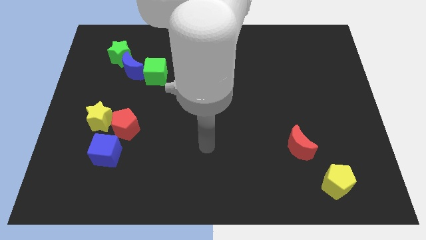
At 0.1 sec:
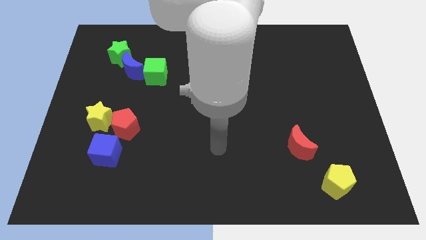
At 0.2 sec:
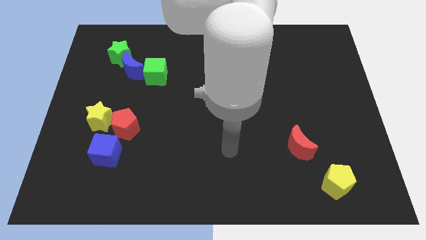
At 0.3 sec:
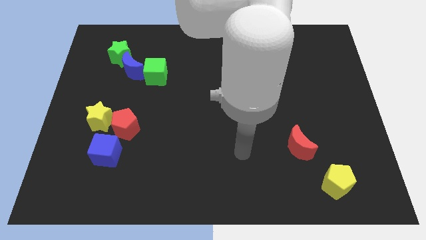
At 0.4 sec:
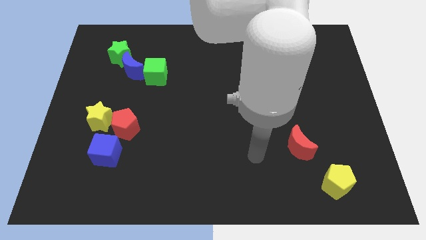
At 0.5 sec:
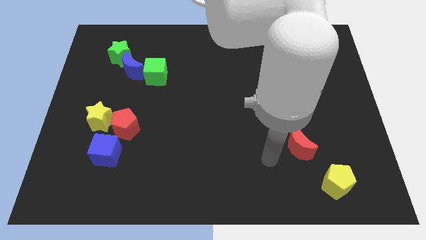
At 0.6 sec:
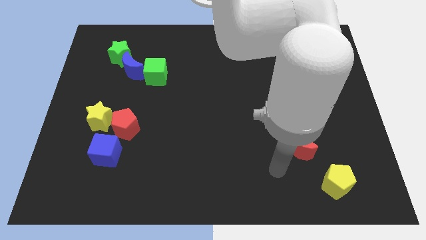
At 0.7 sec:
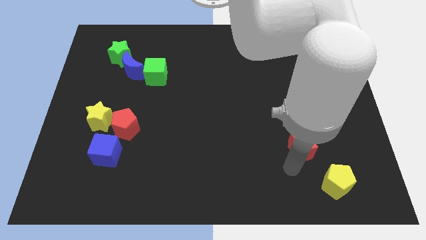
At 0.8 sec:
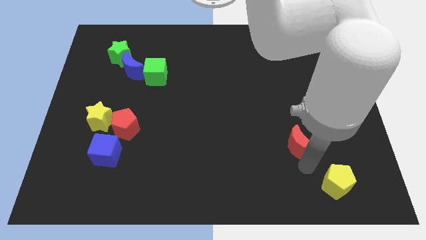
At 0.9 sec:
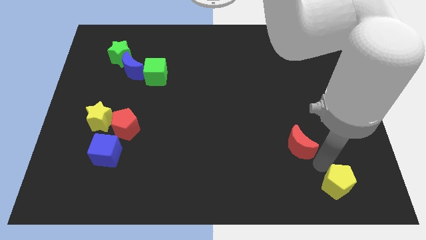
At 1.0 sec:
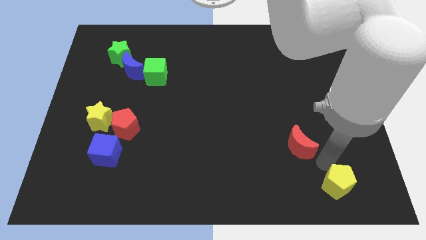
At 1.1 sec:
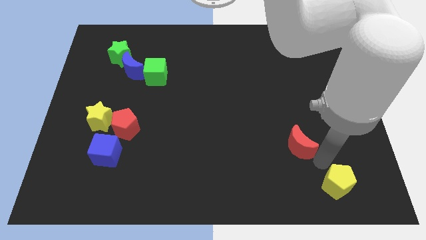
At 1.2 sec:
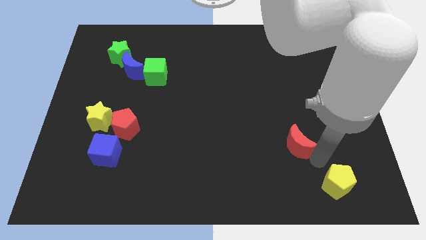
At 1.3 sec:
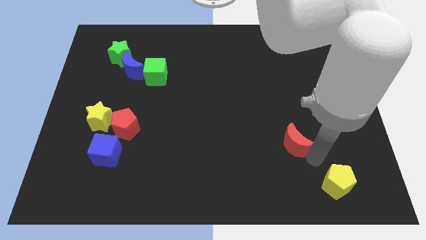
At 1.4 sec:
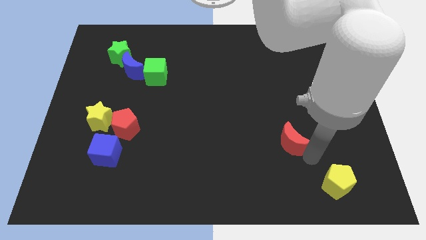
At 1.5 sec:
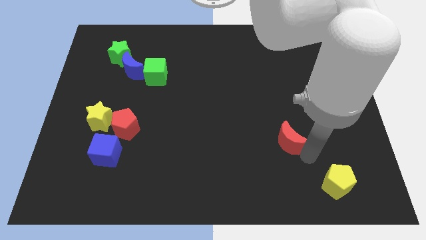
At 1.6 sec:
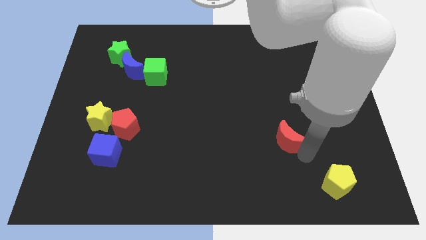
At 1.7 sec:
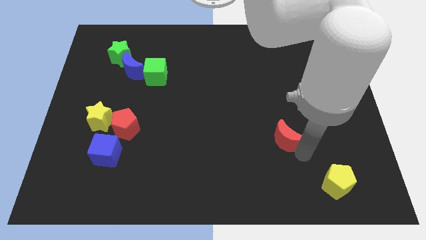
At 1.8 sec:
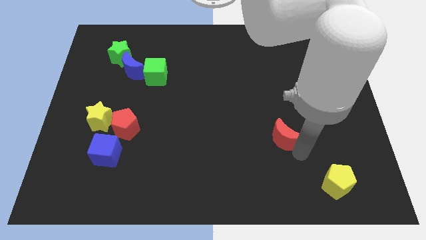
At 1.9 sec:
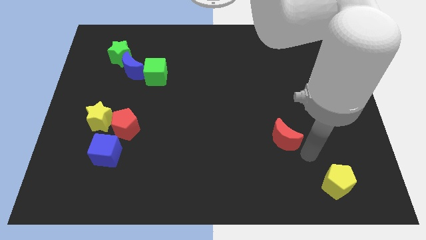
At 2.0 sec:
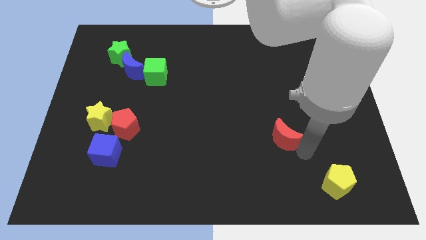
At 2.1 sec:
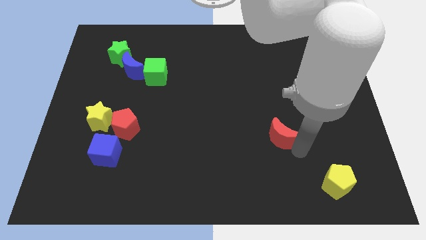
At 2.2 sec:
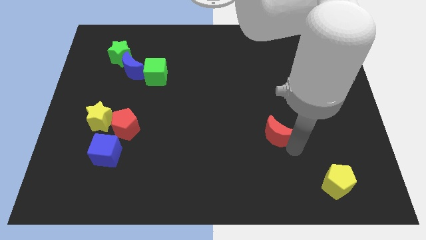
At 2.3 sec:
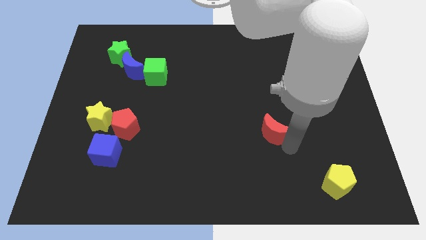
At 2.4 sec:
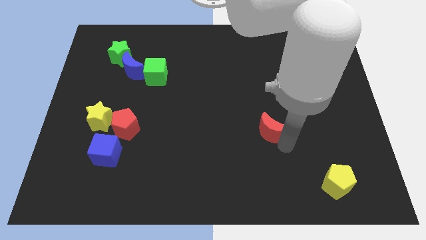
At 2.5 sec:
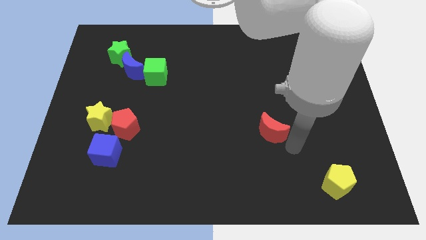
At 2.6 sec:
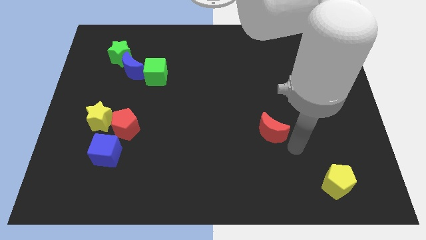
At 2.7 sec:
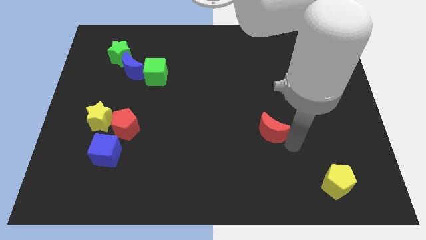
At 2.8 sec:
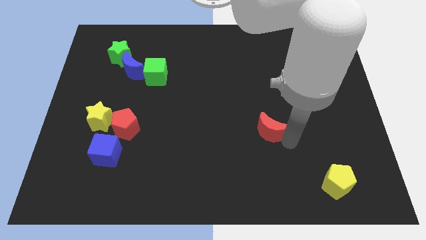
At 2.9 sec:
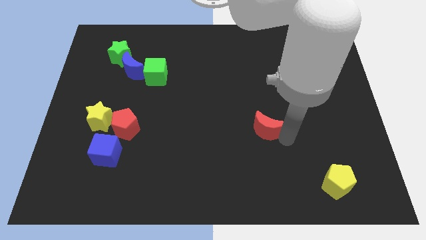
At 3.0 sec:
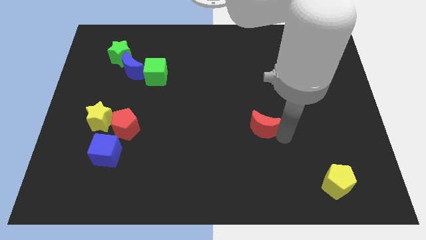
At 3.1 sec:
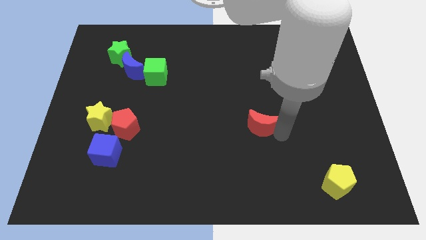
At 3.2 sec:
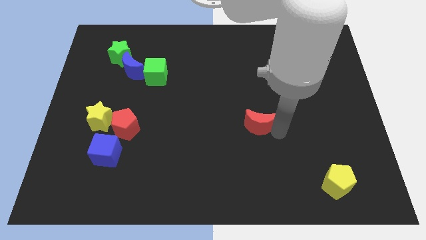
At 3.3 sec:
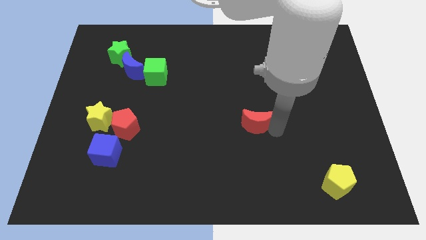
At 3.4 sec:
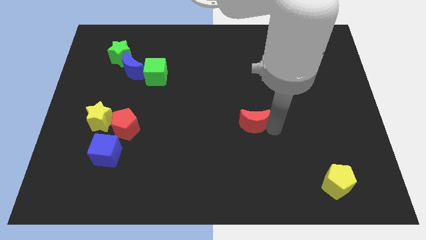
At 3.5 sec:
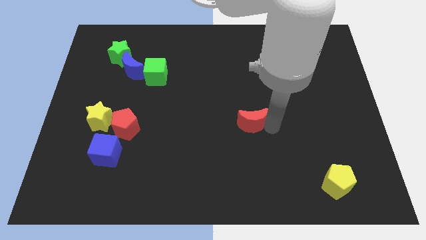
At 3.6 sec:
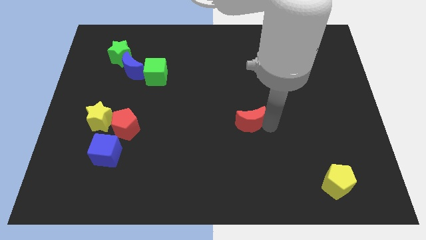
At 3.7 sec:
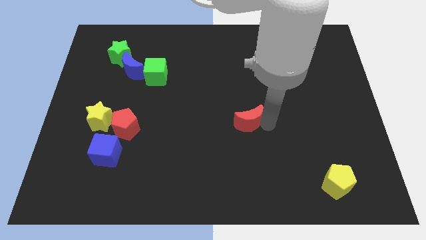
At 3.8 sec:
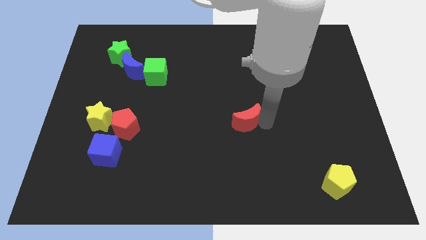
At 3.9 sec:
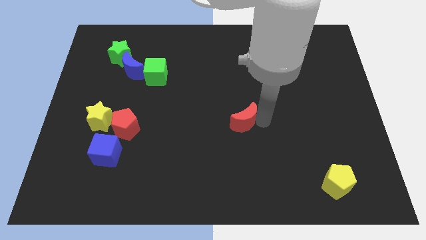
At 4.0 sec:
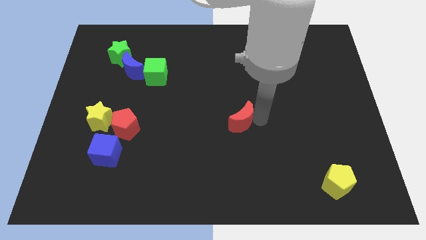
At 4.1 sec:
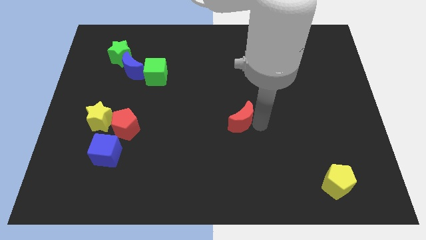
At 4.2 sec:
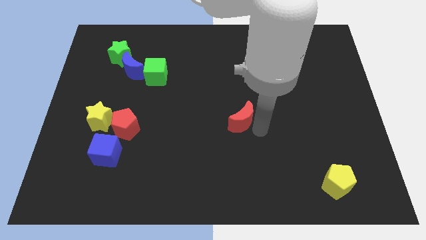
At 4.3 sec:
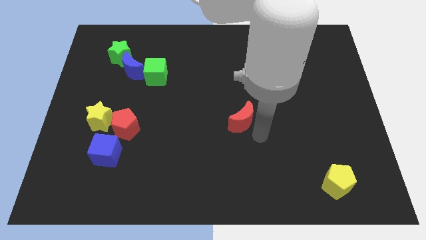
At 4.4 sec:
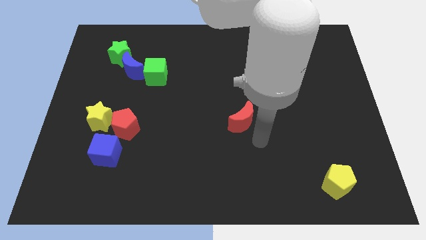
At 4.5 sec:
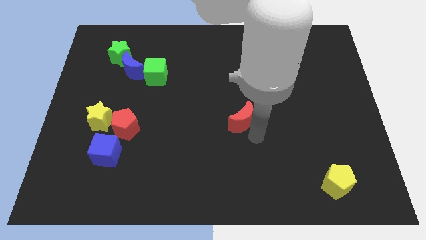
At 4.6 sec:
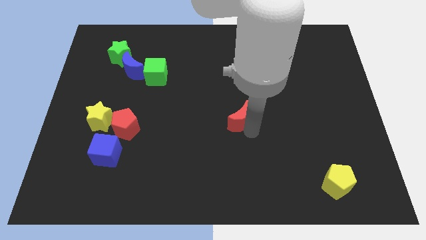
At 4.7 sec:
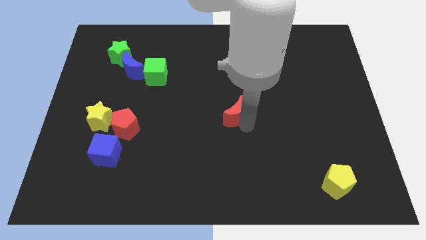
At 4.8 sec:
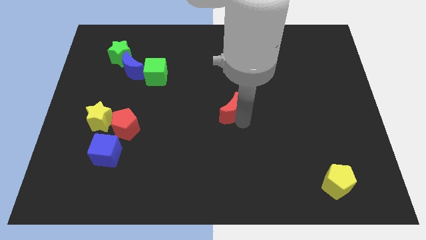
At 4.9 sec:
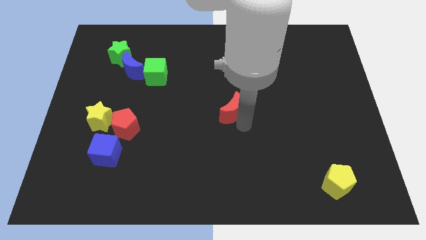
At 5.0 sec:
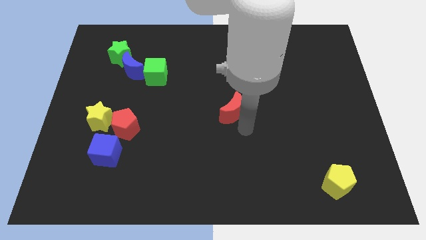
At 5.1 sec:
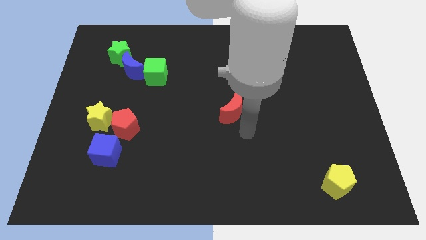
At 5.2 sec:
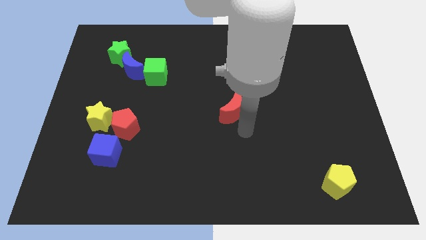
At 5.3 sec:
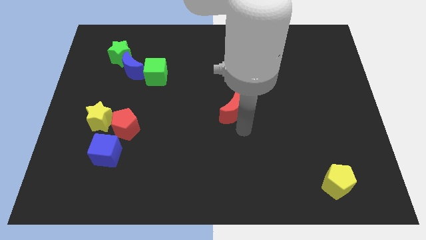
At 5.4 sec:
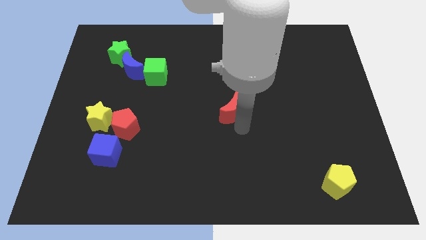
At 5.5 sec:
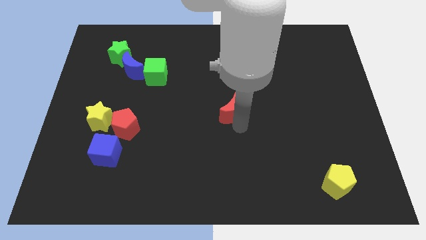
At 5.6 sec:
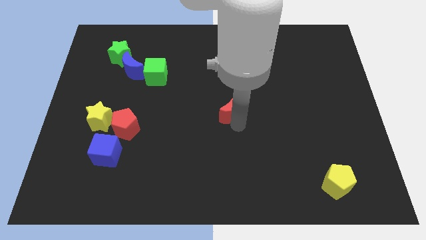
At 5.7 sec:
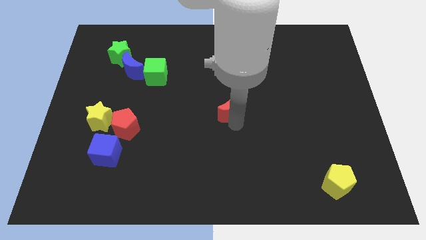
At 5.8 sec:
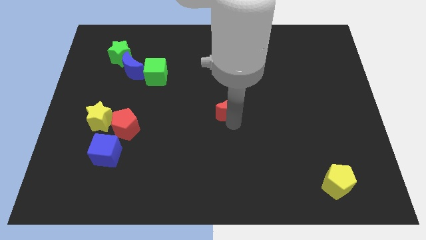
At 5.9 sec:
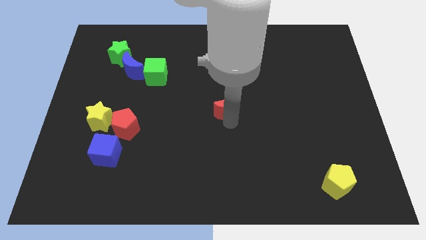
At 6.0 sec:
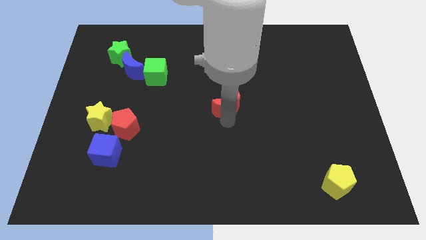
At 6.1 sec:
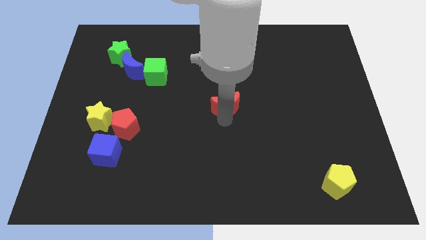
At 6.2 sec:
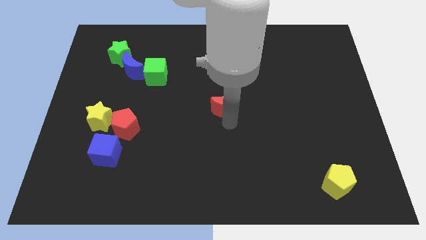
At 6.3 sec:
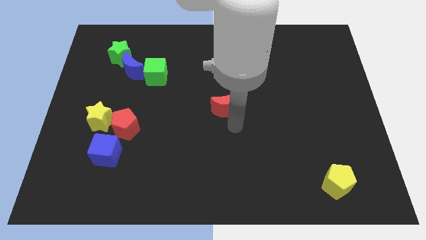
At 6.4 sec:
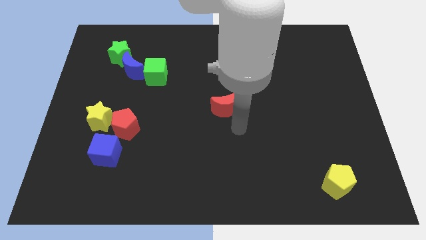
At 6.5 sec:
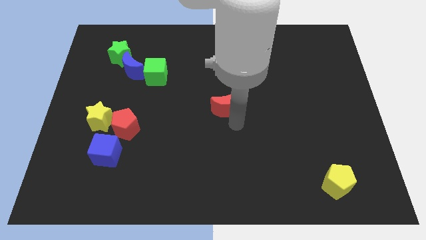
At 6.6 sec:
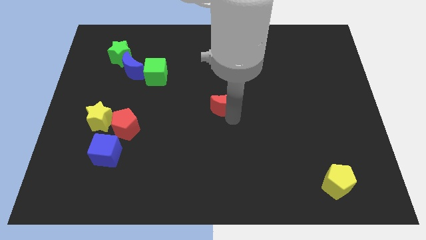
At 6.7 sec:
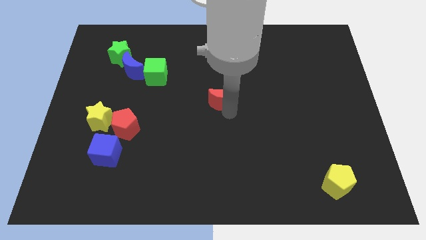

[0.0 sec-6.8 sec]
push the red moon up and then to the left

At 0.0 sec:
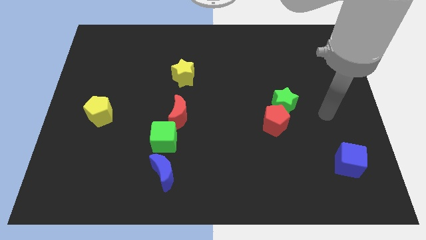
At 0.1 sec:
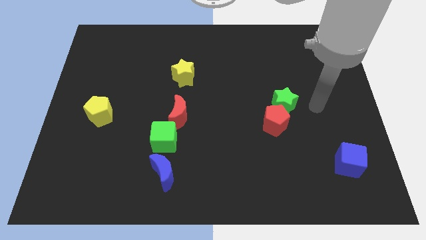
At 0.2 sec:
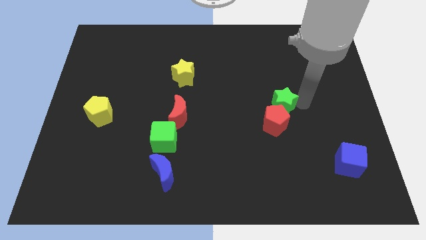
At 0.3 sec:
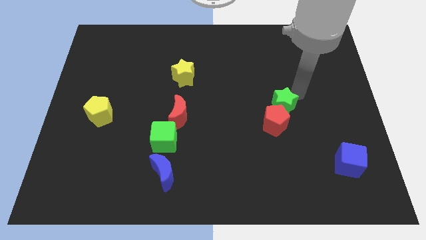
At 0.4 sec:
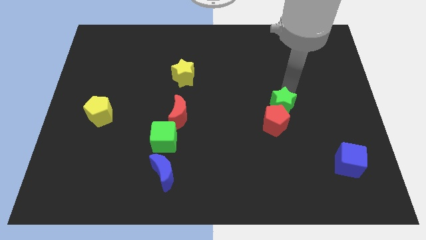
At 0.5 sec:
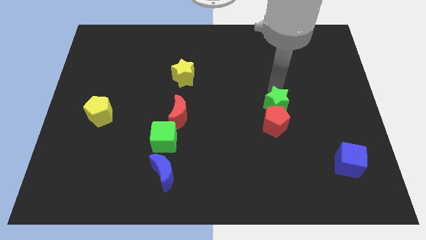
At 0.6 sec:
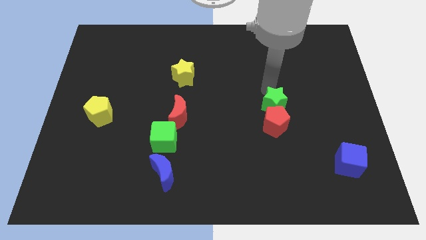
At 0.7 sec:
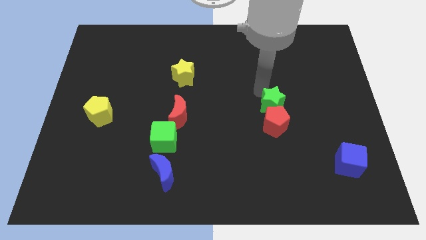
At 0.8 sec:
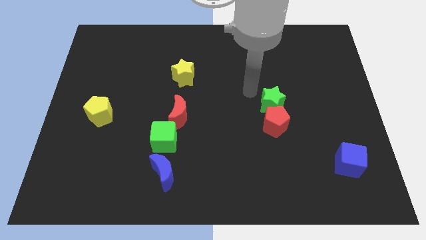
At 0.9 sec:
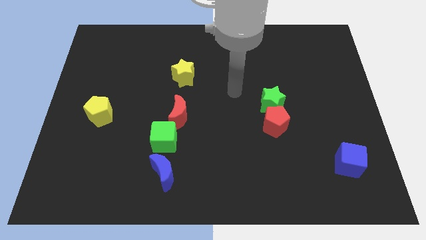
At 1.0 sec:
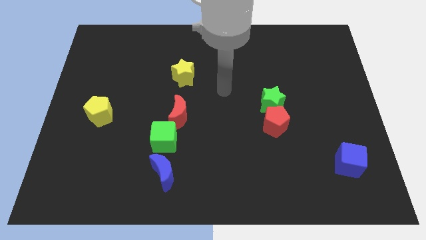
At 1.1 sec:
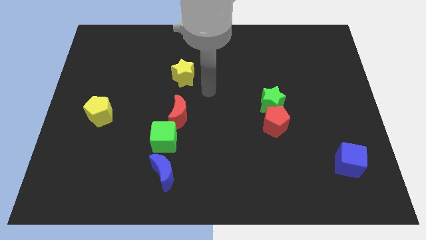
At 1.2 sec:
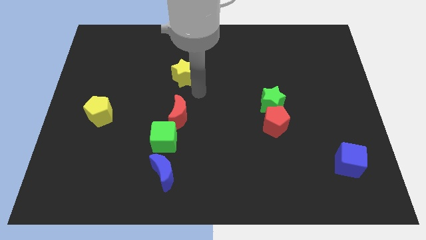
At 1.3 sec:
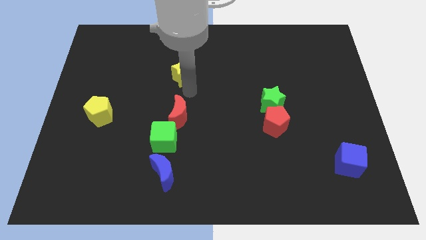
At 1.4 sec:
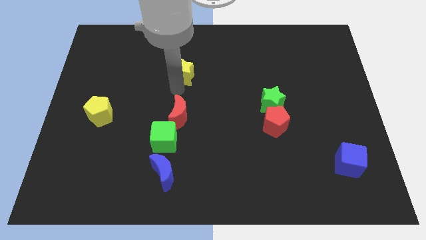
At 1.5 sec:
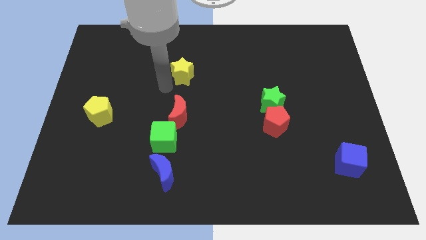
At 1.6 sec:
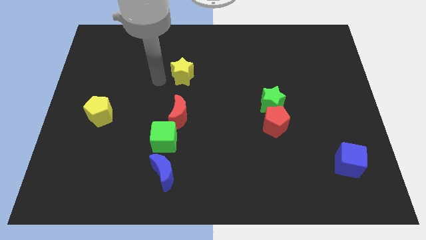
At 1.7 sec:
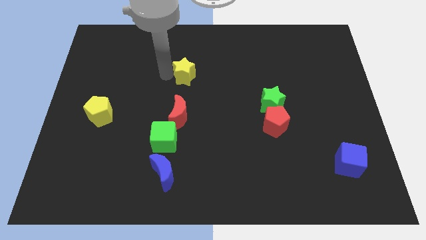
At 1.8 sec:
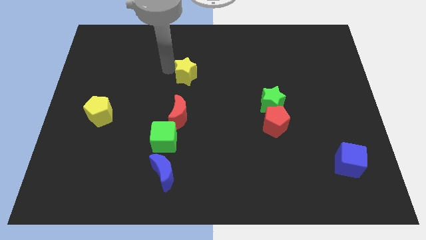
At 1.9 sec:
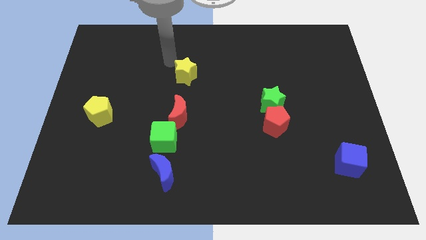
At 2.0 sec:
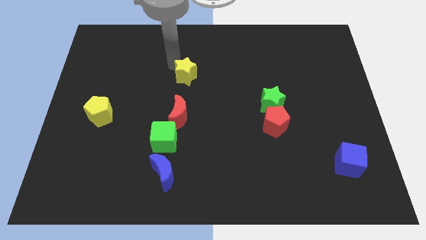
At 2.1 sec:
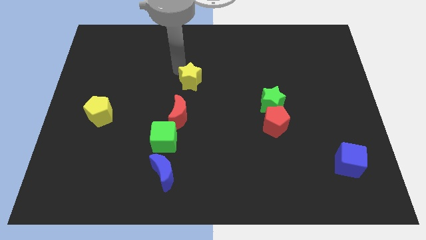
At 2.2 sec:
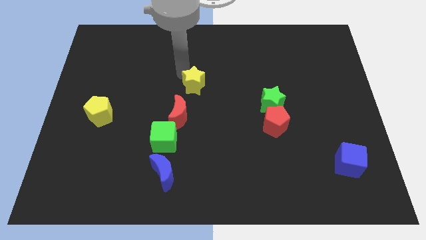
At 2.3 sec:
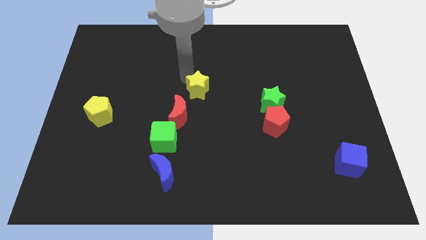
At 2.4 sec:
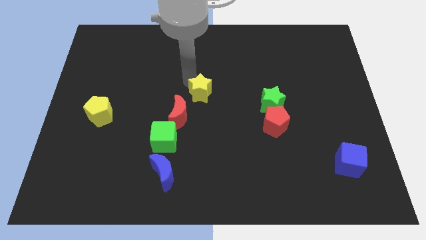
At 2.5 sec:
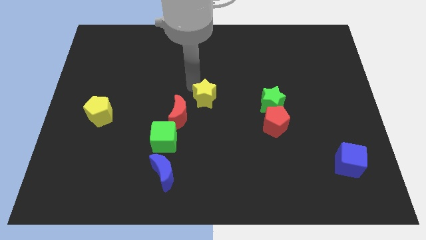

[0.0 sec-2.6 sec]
push the yellow star downwards and then right slightly
